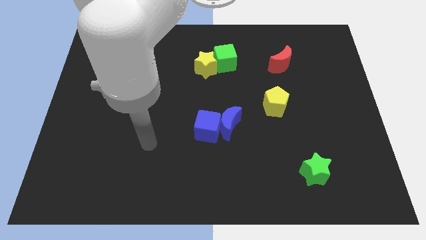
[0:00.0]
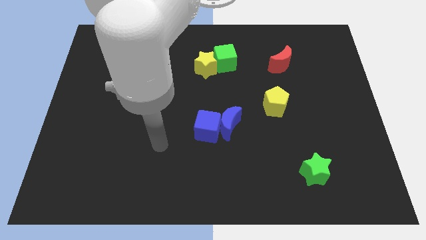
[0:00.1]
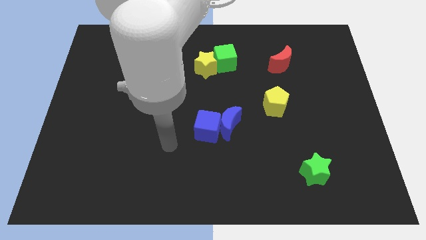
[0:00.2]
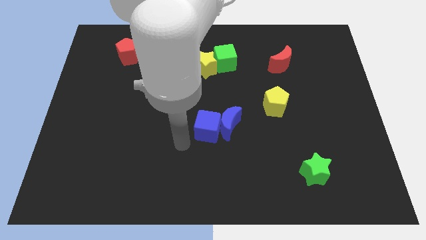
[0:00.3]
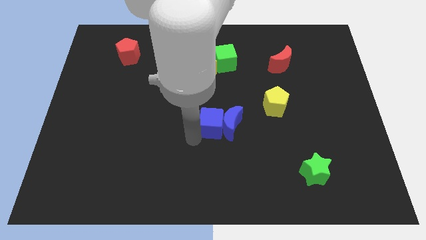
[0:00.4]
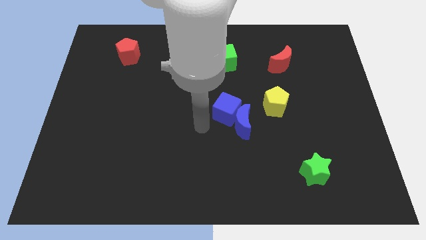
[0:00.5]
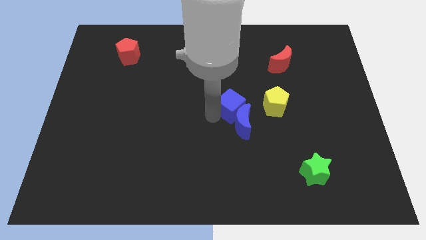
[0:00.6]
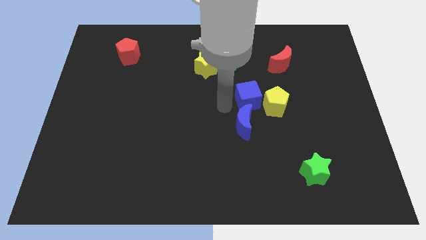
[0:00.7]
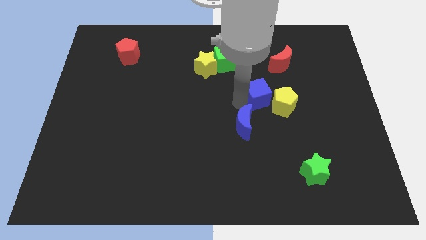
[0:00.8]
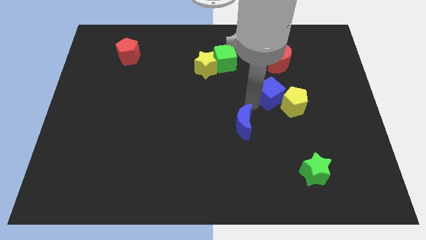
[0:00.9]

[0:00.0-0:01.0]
pull the blue moon apart from the blue cube

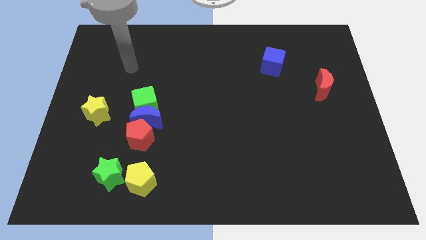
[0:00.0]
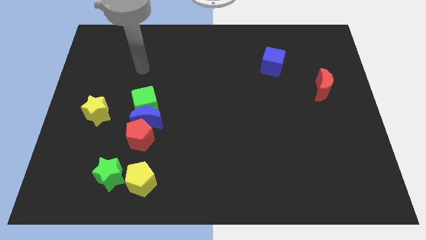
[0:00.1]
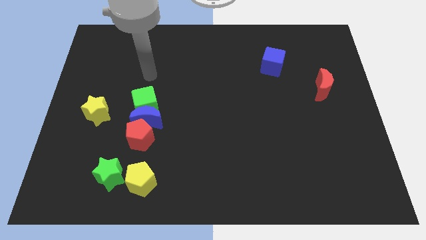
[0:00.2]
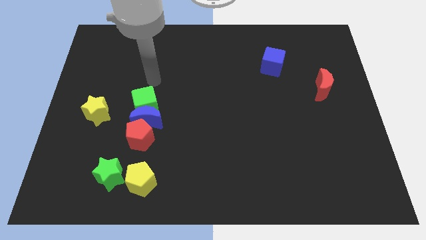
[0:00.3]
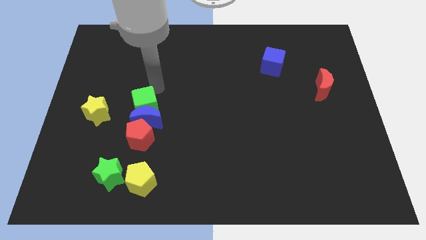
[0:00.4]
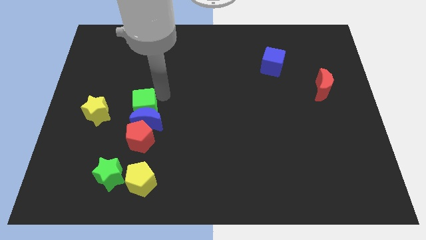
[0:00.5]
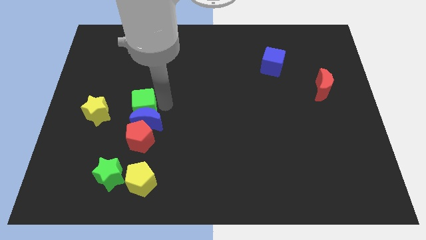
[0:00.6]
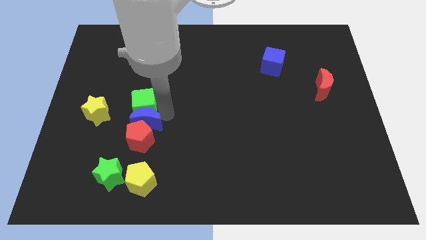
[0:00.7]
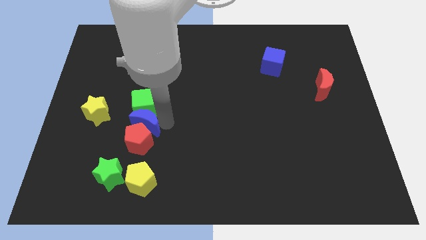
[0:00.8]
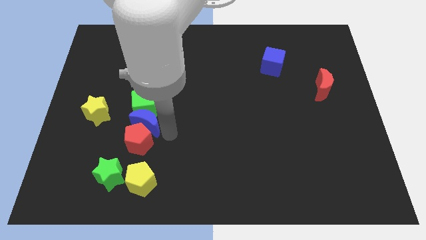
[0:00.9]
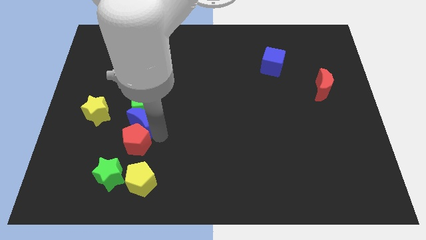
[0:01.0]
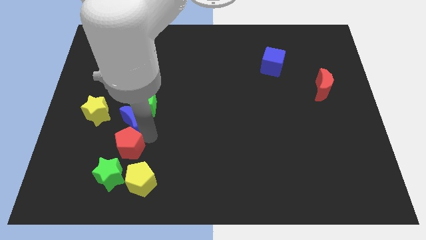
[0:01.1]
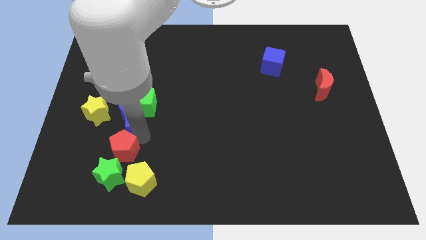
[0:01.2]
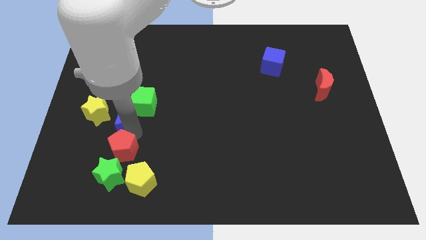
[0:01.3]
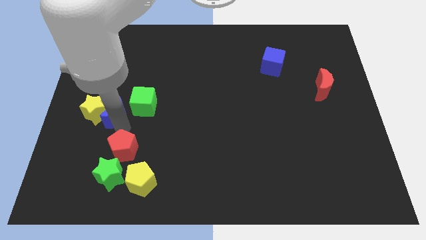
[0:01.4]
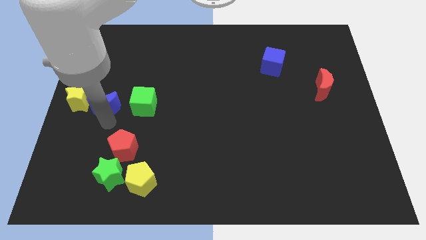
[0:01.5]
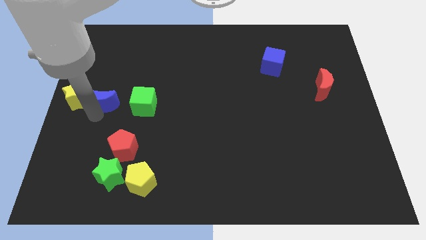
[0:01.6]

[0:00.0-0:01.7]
move the blue moon away from the green cube and red pentagon

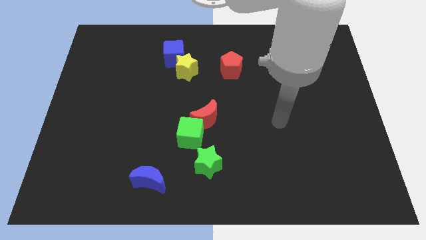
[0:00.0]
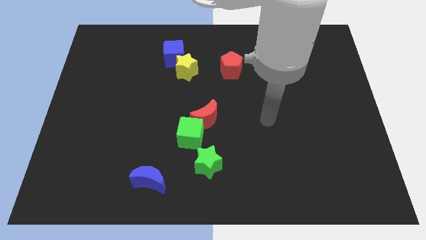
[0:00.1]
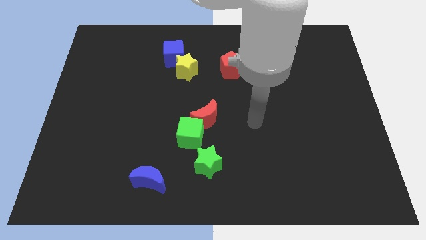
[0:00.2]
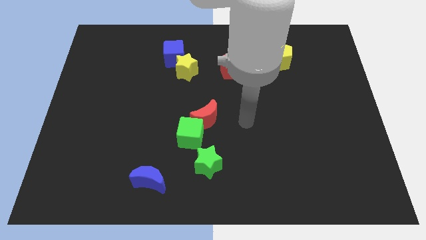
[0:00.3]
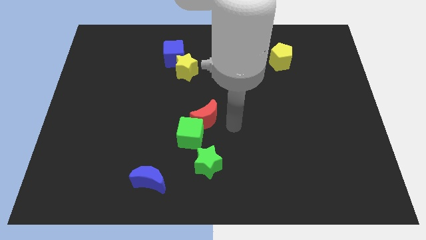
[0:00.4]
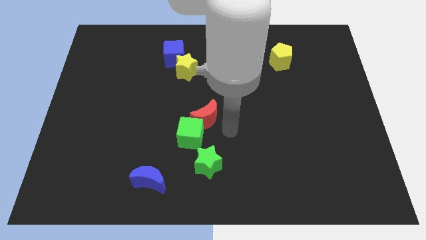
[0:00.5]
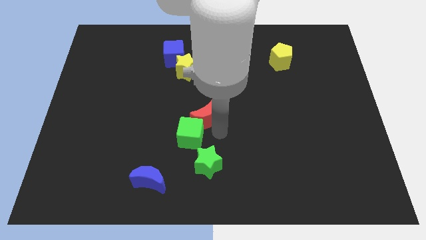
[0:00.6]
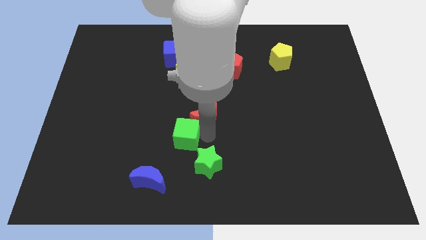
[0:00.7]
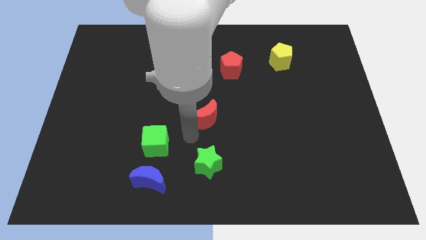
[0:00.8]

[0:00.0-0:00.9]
pull the red moon apart from the green cube

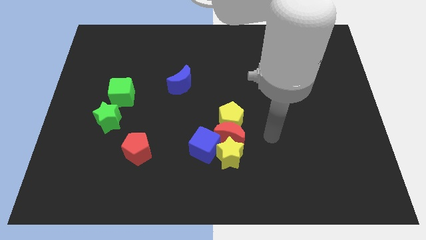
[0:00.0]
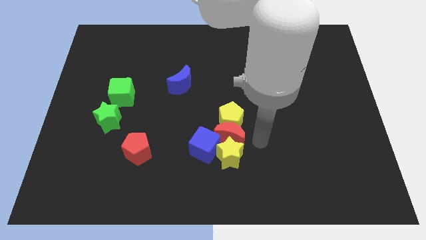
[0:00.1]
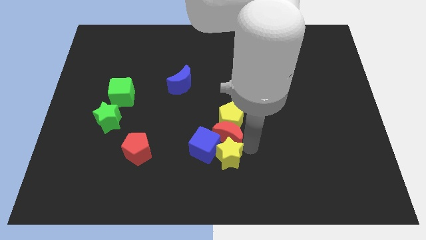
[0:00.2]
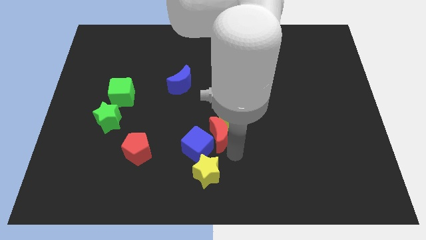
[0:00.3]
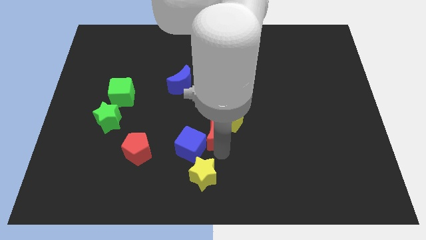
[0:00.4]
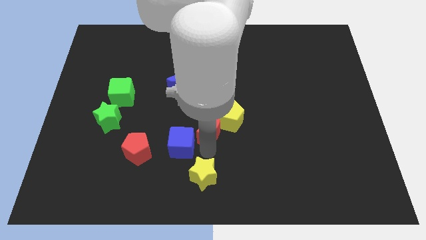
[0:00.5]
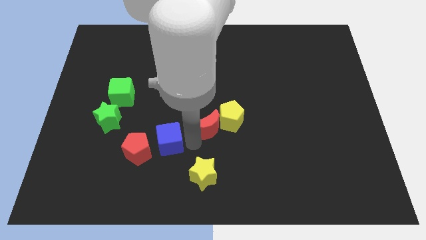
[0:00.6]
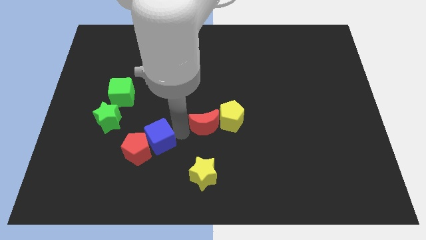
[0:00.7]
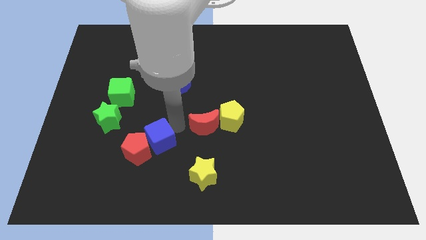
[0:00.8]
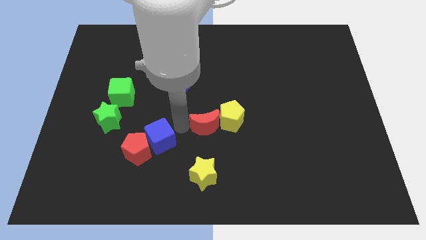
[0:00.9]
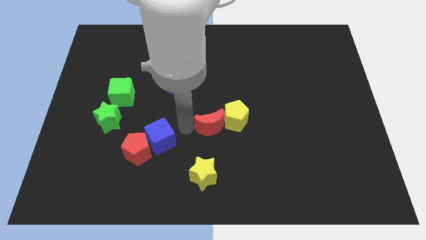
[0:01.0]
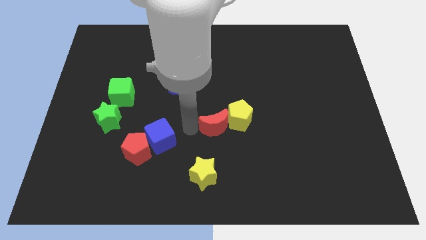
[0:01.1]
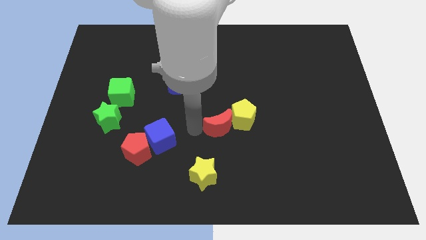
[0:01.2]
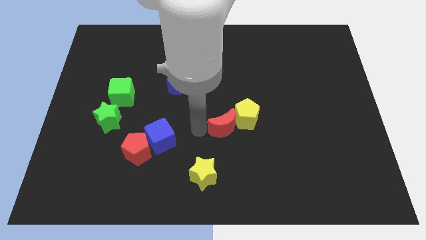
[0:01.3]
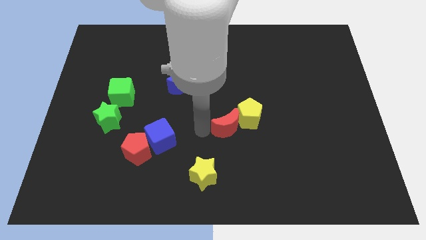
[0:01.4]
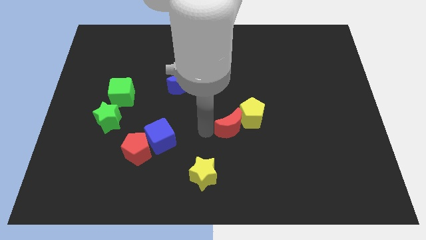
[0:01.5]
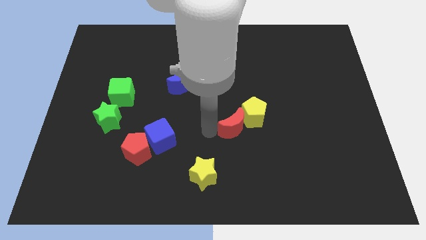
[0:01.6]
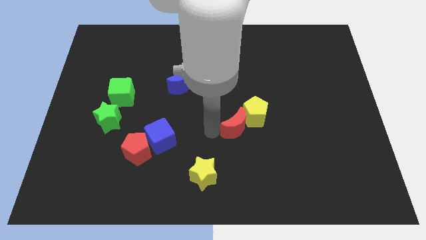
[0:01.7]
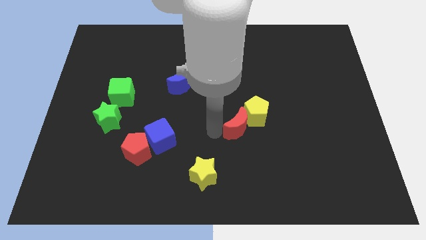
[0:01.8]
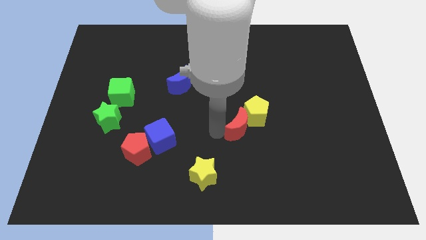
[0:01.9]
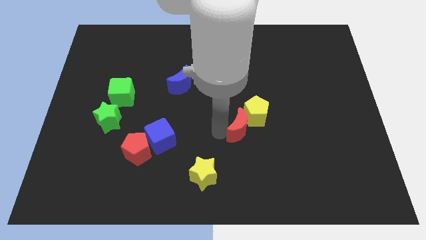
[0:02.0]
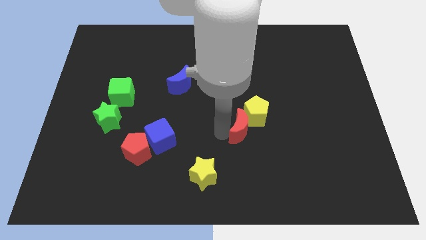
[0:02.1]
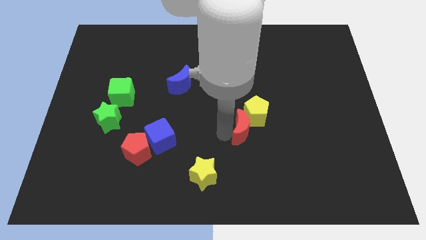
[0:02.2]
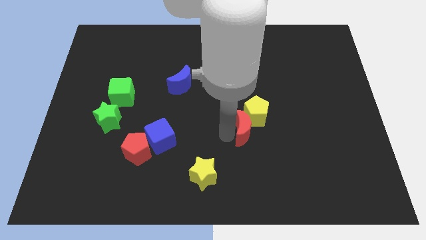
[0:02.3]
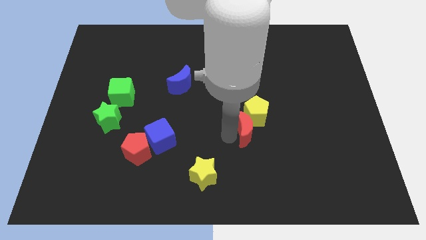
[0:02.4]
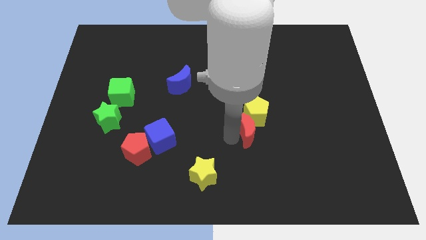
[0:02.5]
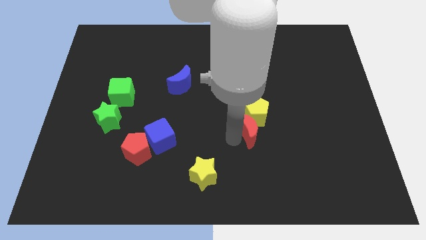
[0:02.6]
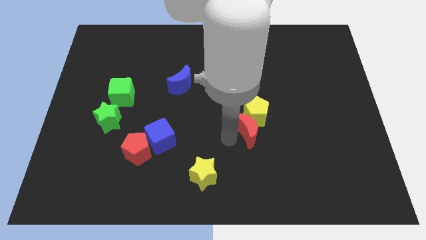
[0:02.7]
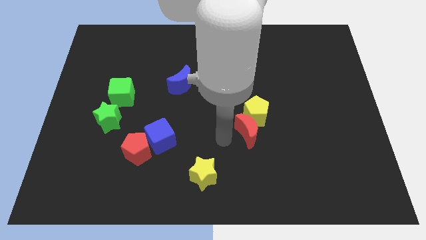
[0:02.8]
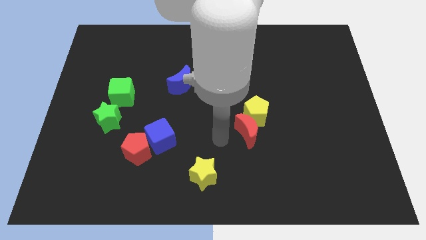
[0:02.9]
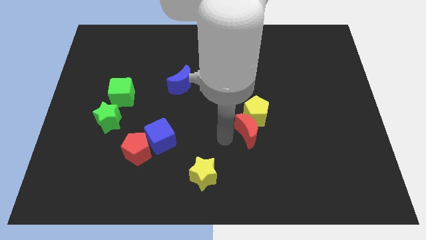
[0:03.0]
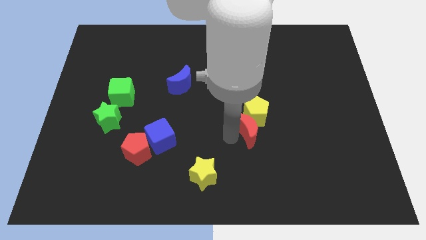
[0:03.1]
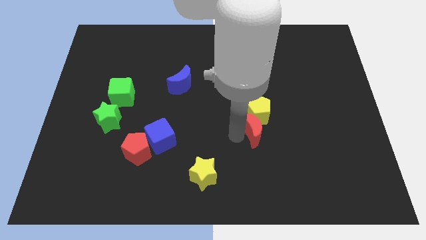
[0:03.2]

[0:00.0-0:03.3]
move the red moon away from the yellow pentagon, yellow star, and blue cube

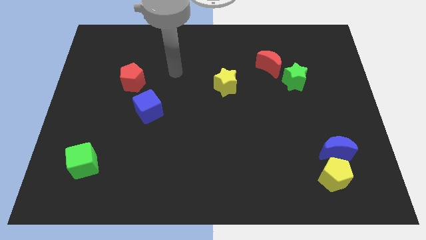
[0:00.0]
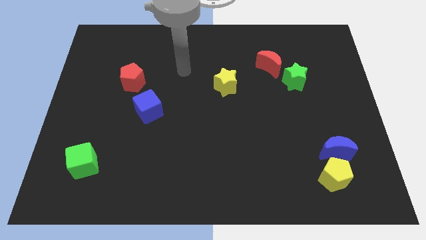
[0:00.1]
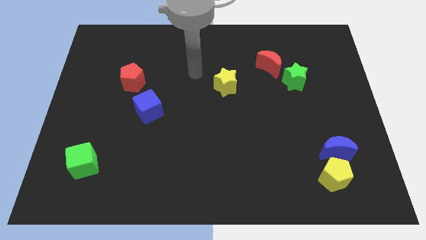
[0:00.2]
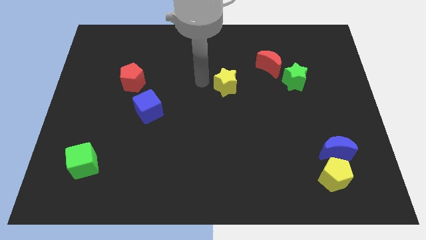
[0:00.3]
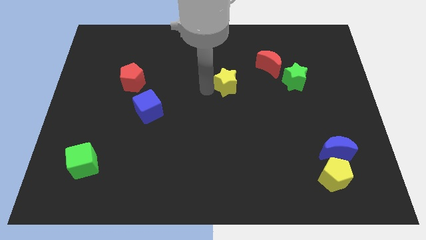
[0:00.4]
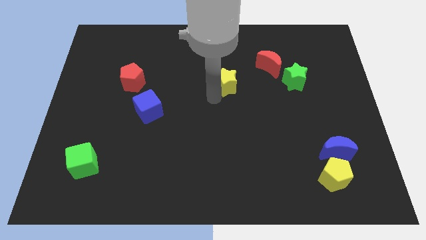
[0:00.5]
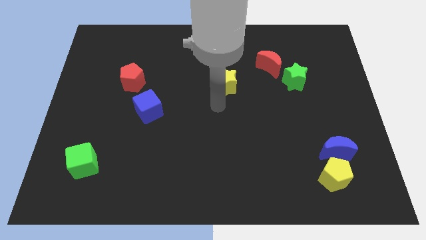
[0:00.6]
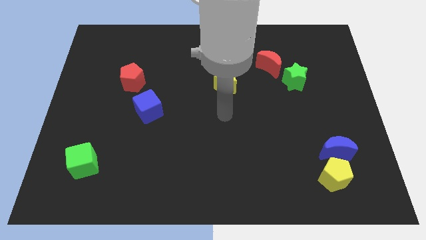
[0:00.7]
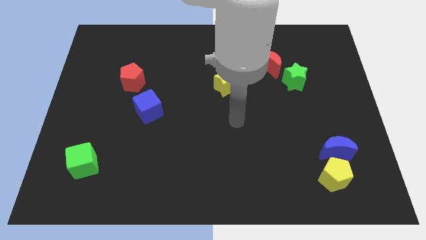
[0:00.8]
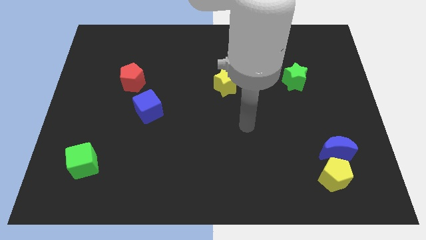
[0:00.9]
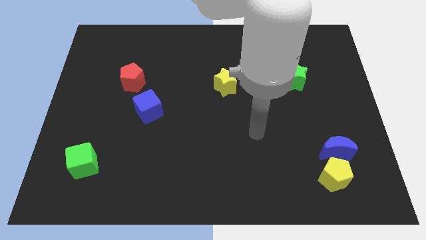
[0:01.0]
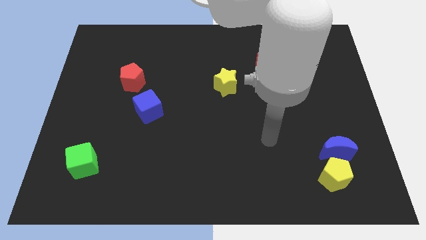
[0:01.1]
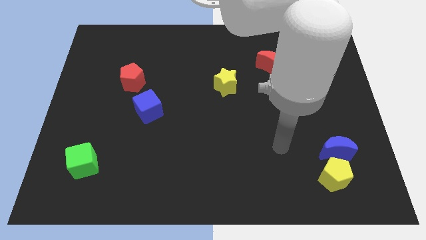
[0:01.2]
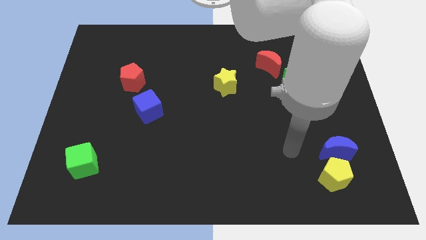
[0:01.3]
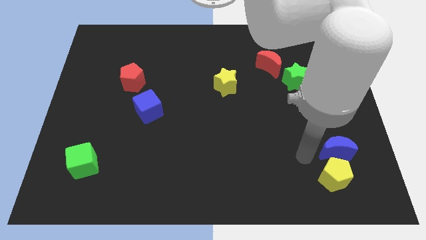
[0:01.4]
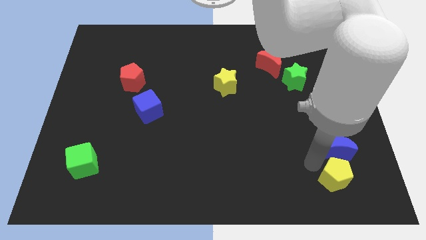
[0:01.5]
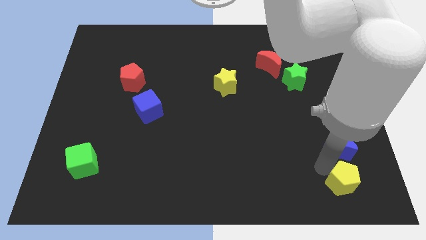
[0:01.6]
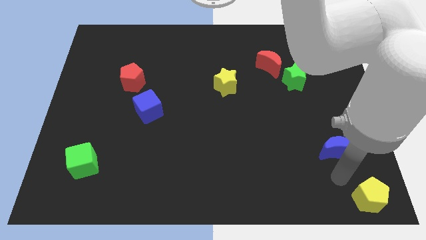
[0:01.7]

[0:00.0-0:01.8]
move the blue moon away from the yellow pentagon

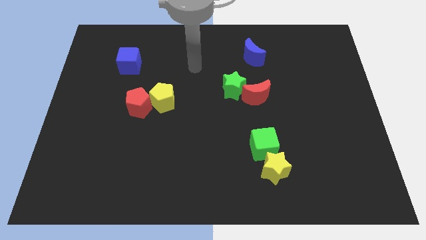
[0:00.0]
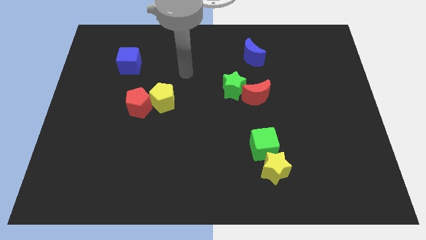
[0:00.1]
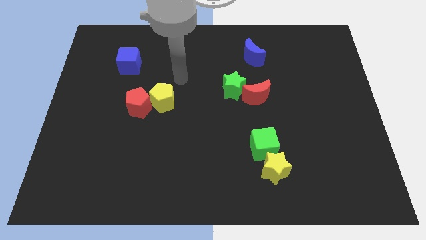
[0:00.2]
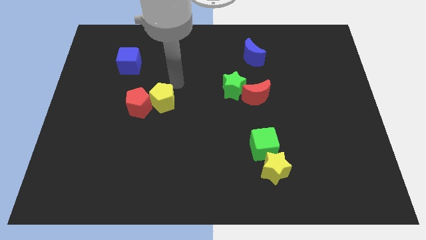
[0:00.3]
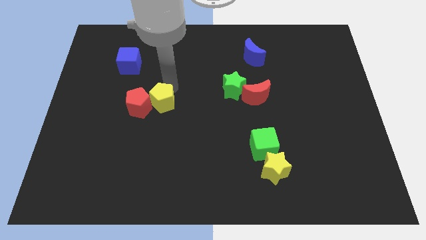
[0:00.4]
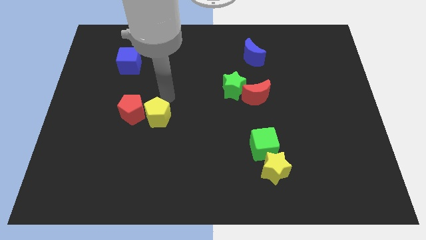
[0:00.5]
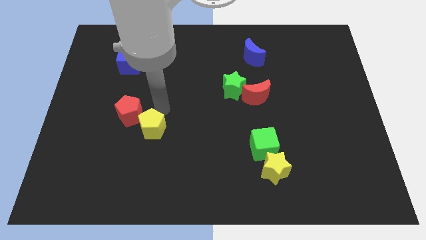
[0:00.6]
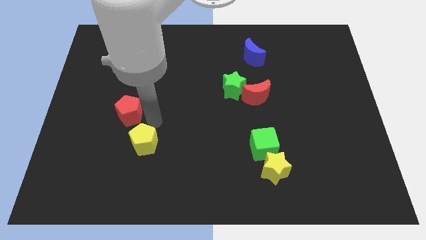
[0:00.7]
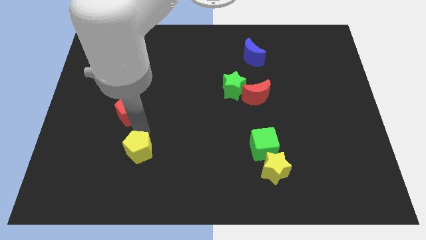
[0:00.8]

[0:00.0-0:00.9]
move the red pentagon away from the yellow pentagon
